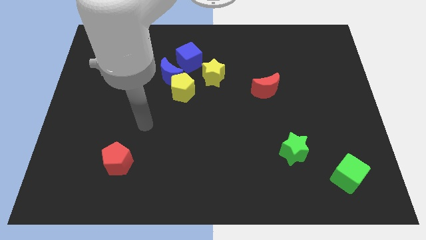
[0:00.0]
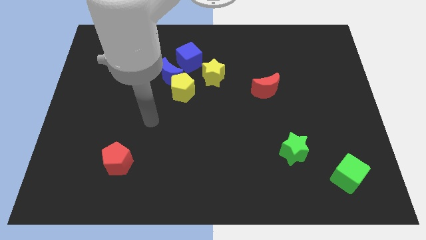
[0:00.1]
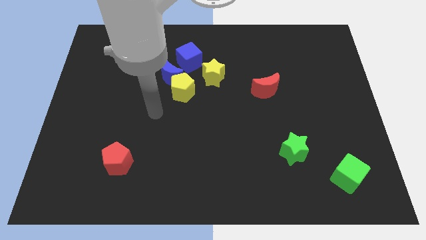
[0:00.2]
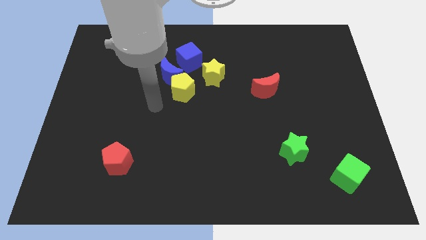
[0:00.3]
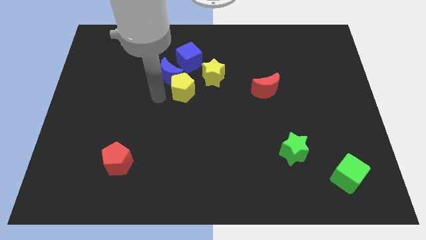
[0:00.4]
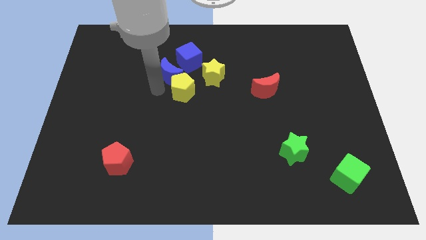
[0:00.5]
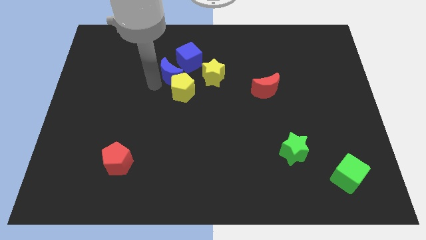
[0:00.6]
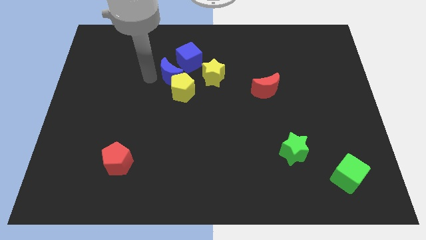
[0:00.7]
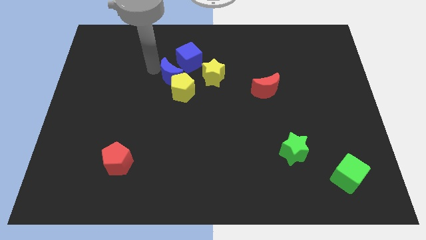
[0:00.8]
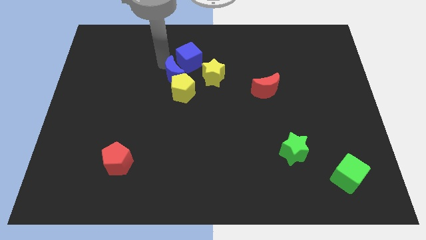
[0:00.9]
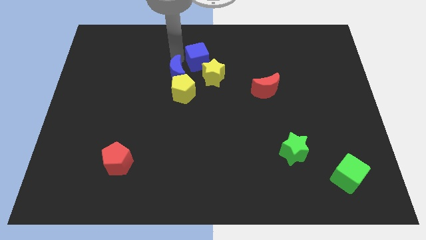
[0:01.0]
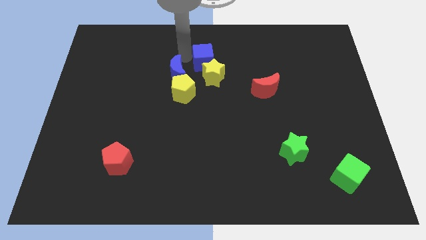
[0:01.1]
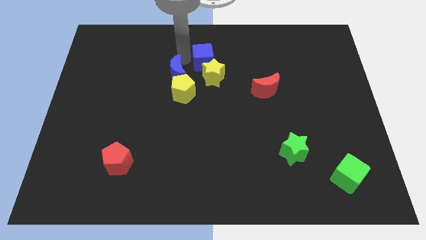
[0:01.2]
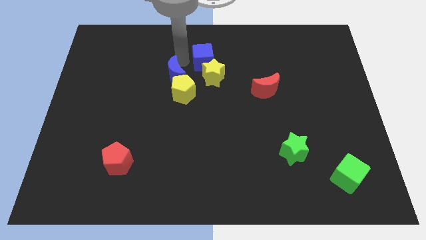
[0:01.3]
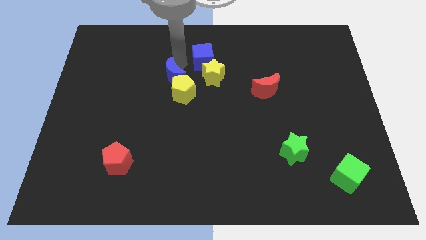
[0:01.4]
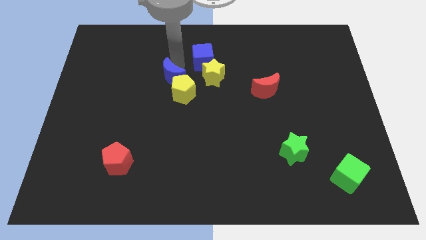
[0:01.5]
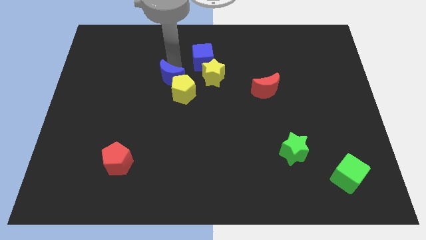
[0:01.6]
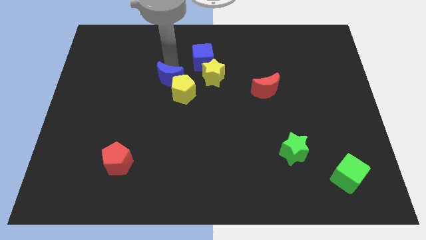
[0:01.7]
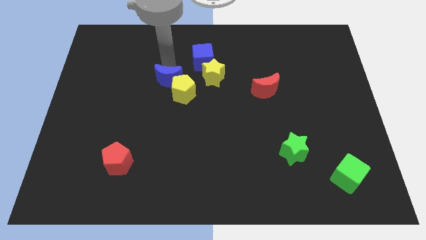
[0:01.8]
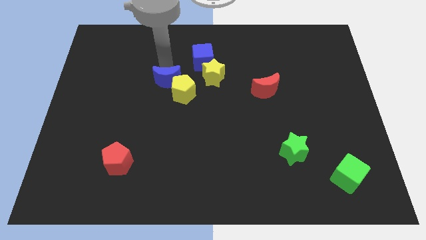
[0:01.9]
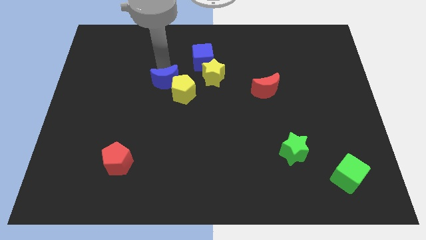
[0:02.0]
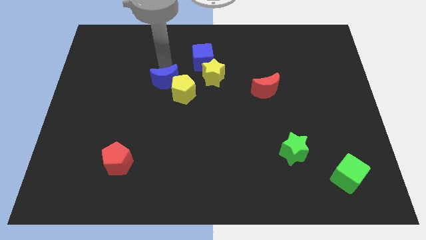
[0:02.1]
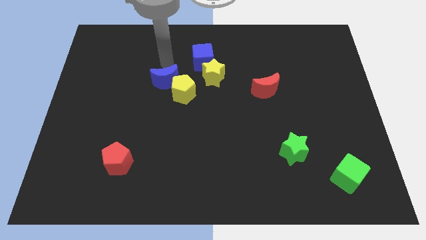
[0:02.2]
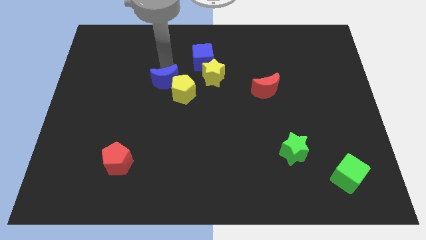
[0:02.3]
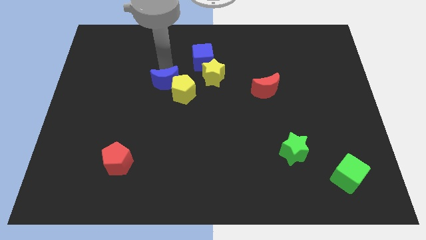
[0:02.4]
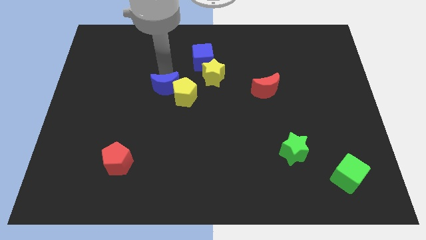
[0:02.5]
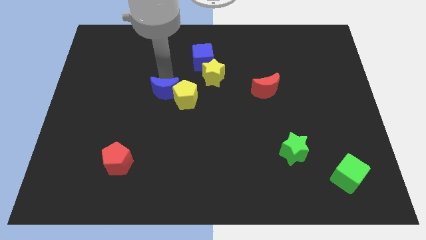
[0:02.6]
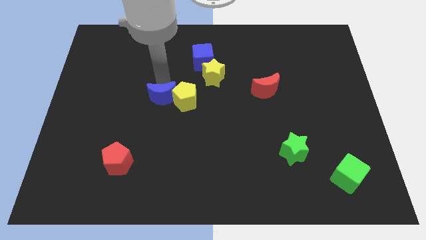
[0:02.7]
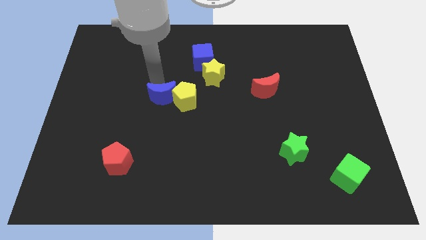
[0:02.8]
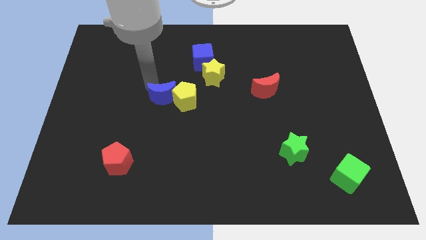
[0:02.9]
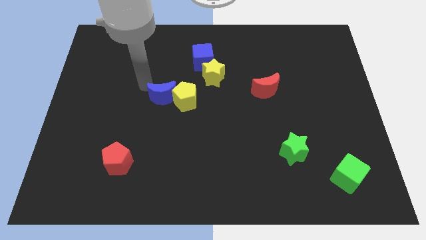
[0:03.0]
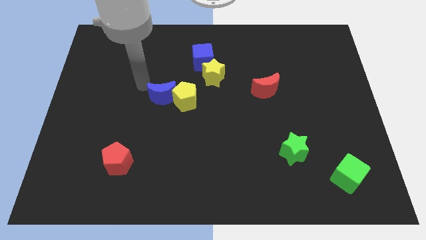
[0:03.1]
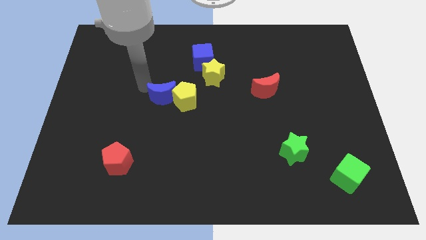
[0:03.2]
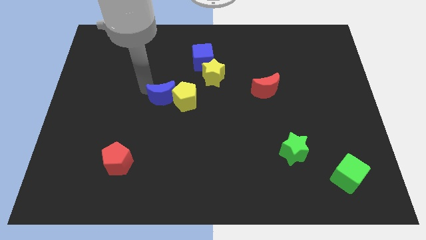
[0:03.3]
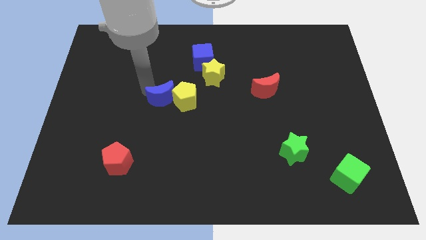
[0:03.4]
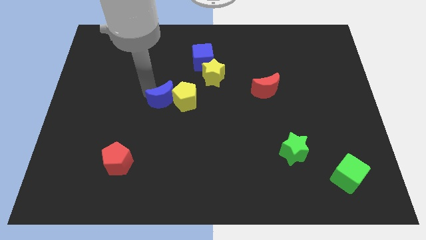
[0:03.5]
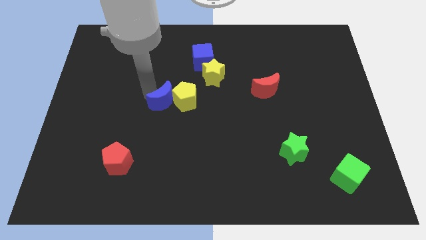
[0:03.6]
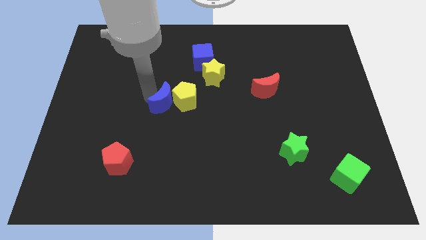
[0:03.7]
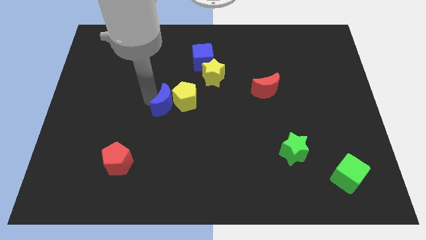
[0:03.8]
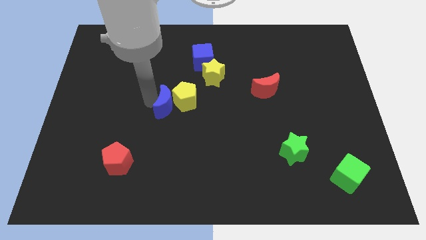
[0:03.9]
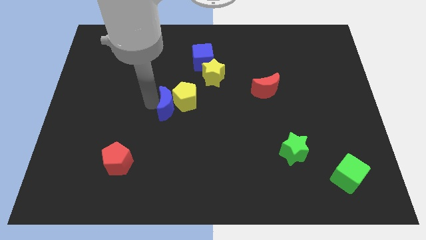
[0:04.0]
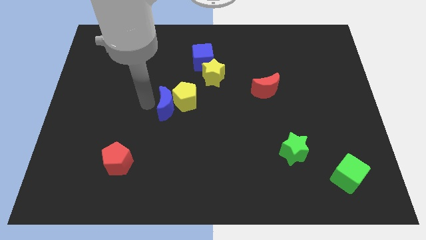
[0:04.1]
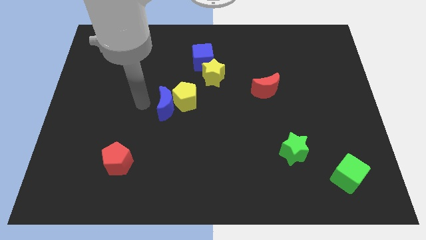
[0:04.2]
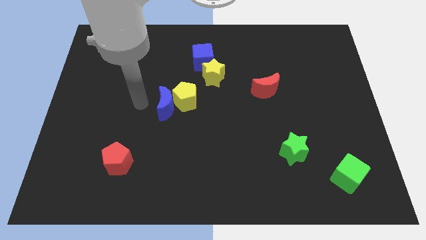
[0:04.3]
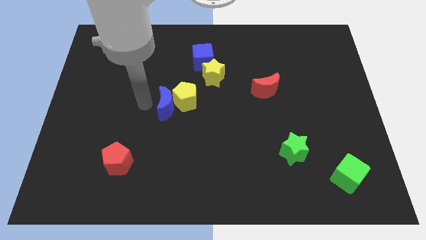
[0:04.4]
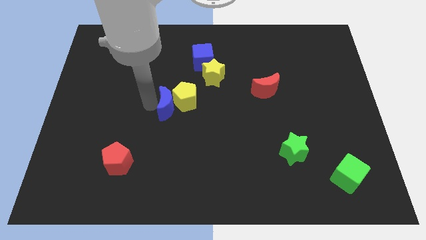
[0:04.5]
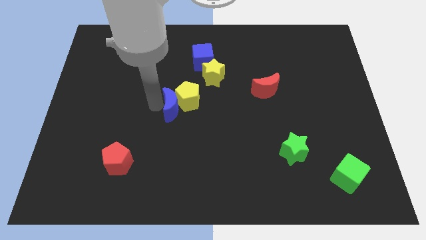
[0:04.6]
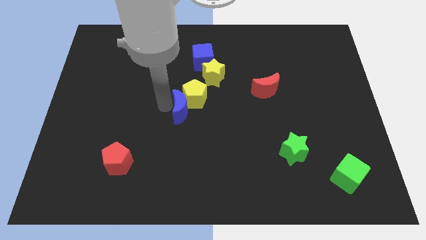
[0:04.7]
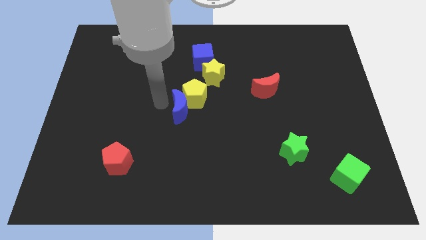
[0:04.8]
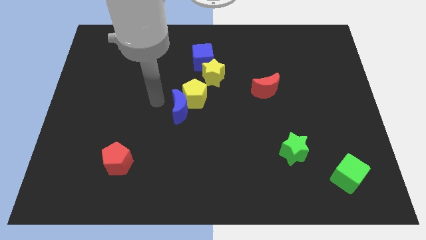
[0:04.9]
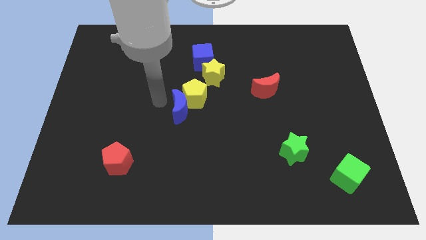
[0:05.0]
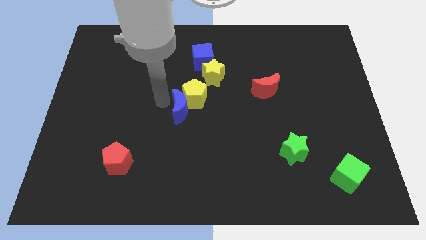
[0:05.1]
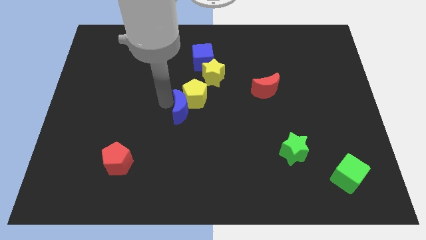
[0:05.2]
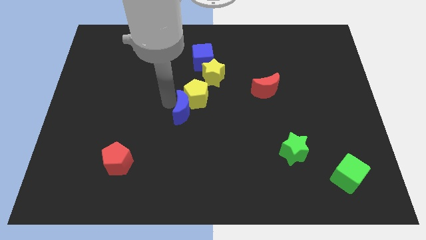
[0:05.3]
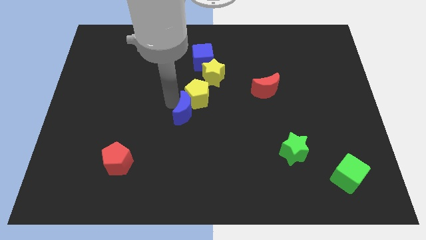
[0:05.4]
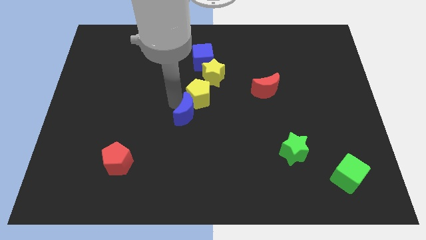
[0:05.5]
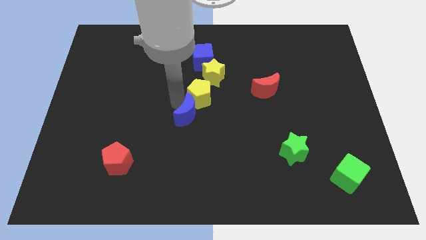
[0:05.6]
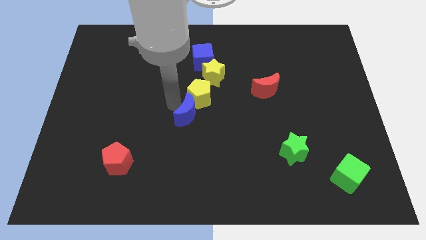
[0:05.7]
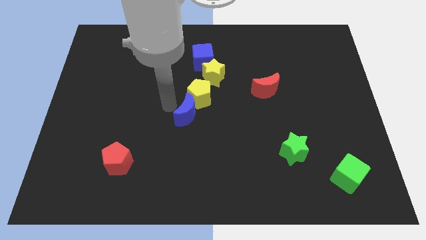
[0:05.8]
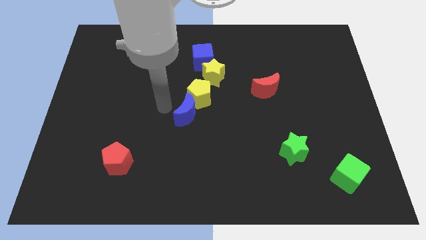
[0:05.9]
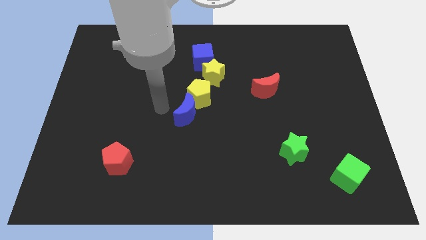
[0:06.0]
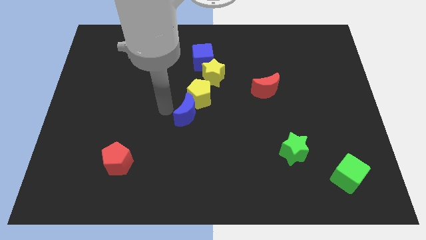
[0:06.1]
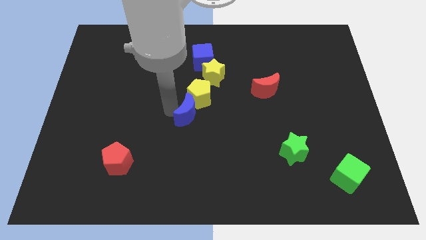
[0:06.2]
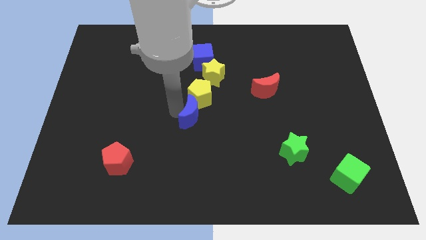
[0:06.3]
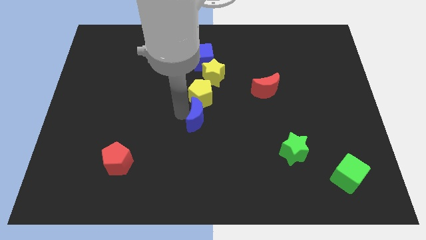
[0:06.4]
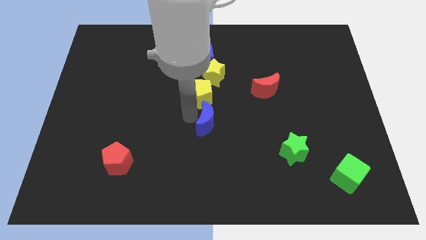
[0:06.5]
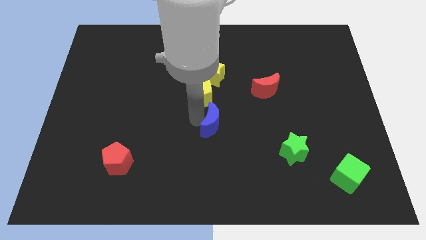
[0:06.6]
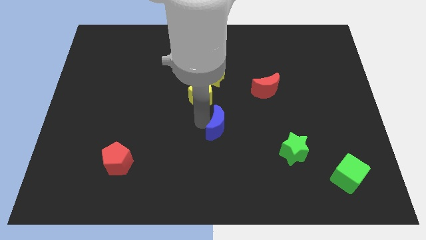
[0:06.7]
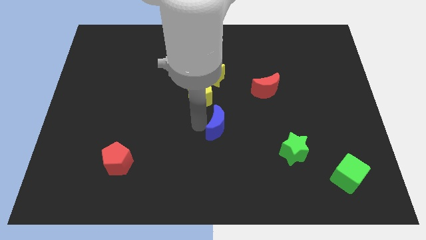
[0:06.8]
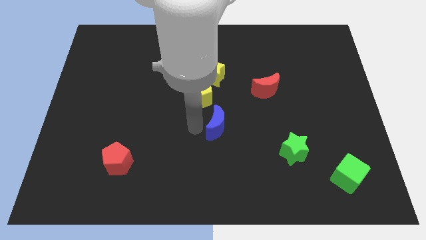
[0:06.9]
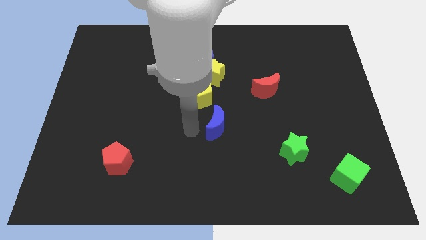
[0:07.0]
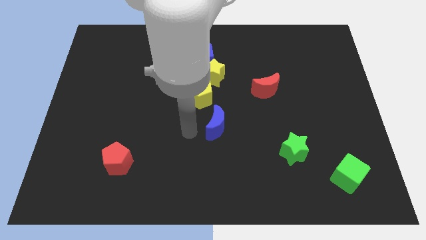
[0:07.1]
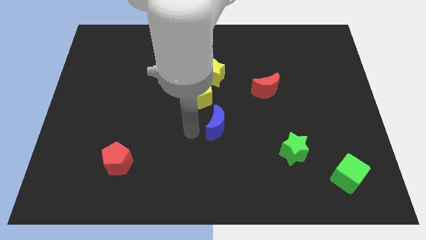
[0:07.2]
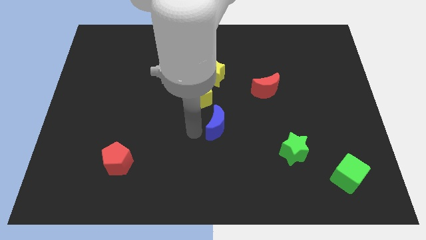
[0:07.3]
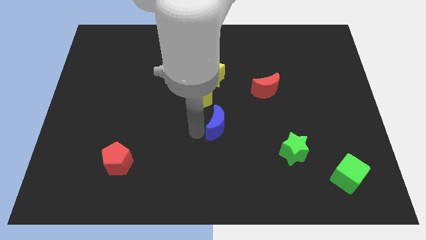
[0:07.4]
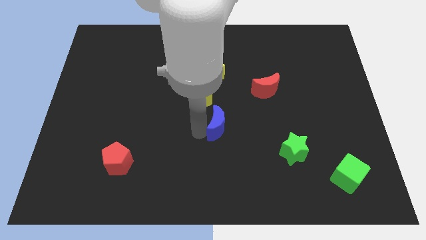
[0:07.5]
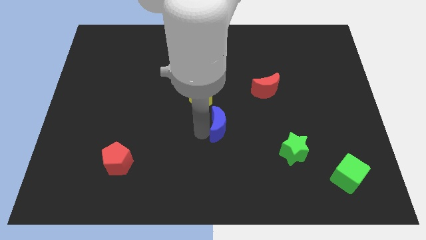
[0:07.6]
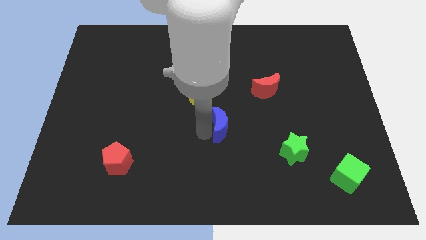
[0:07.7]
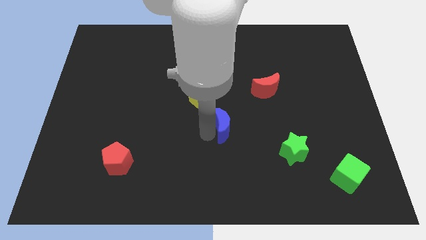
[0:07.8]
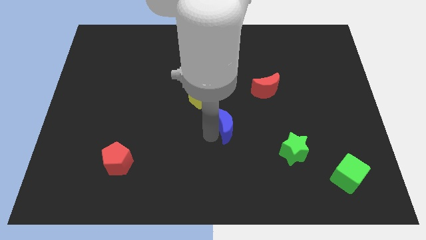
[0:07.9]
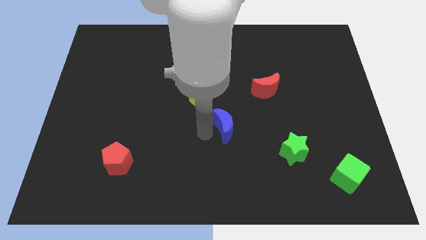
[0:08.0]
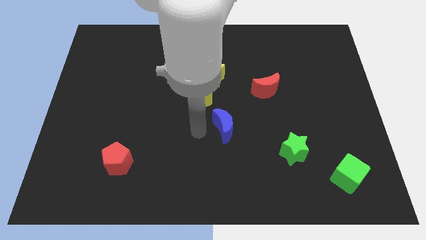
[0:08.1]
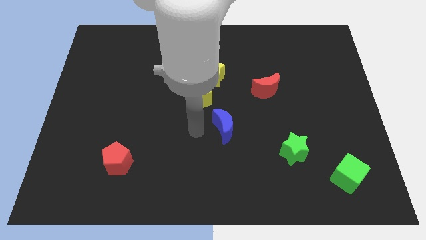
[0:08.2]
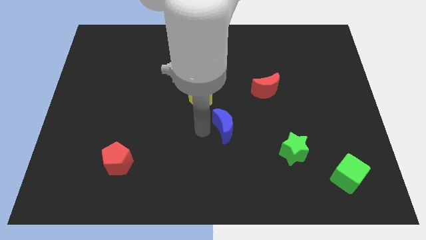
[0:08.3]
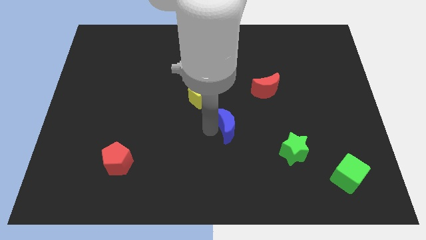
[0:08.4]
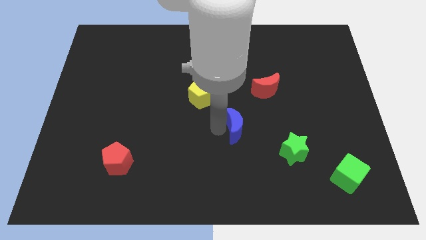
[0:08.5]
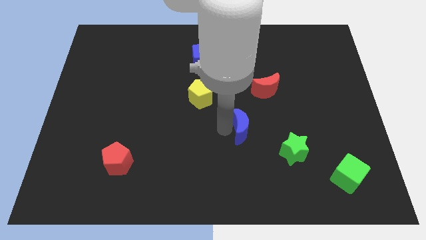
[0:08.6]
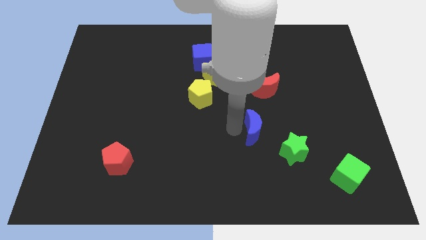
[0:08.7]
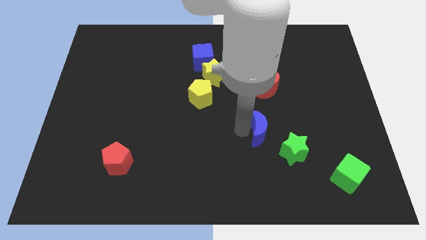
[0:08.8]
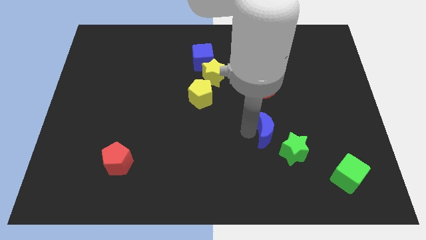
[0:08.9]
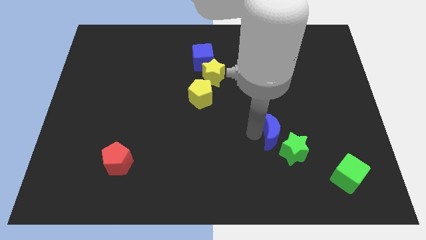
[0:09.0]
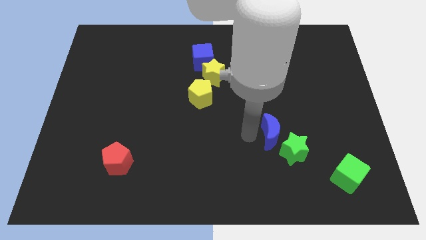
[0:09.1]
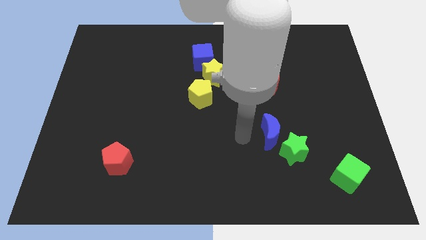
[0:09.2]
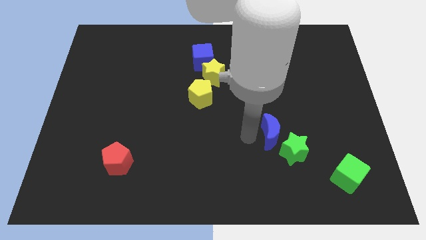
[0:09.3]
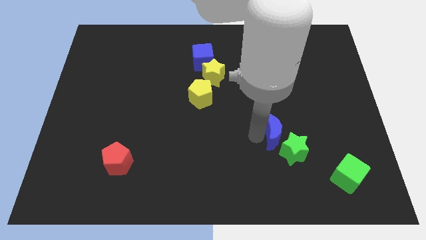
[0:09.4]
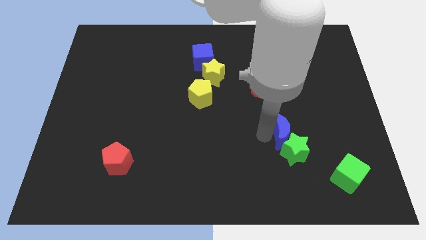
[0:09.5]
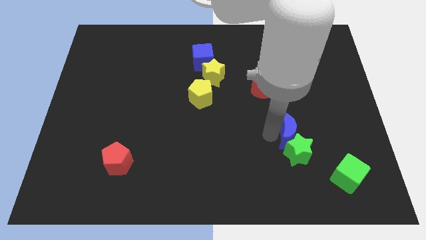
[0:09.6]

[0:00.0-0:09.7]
move the blue moon diagonally up and to the right of the green star
